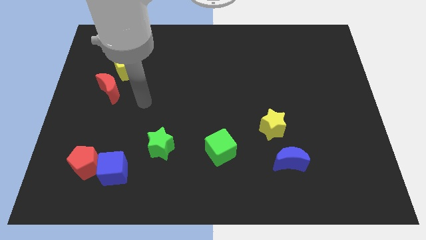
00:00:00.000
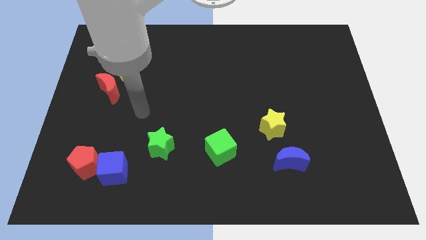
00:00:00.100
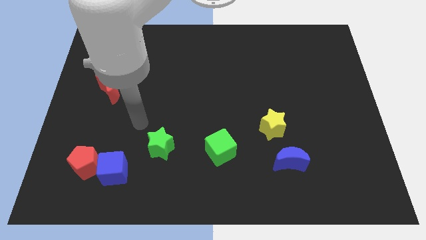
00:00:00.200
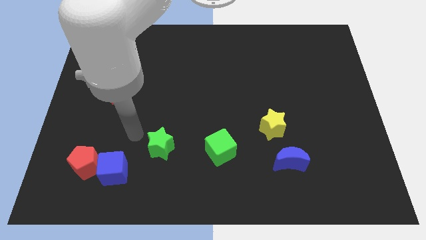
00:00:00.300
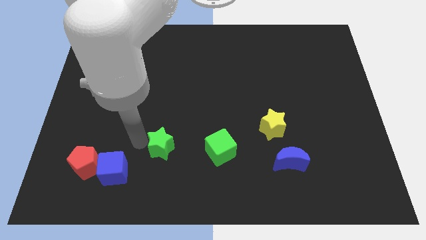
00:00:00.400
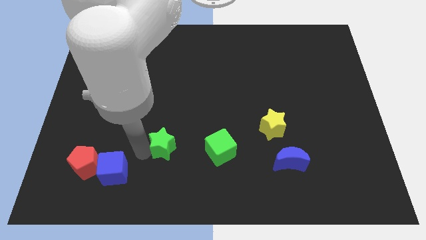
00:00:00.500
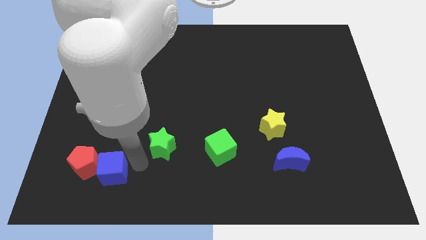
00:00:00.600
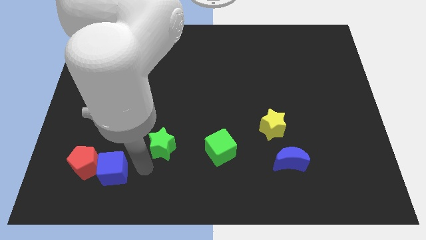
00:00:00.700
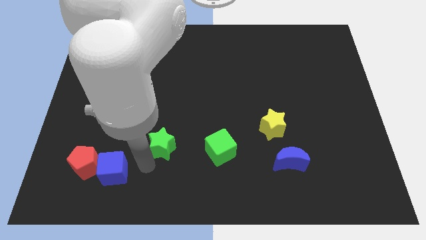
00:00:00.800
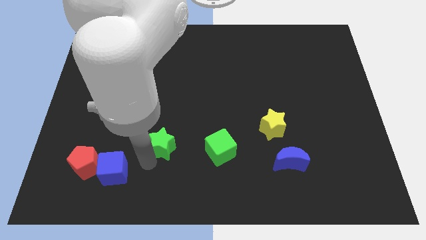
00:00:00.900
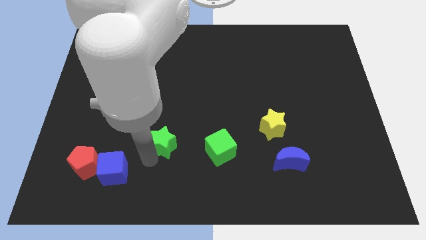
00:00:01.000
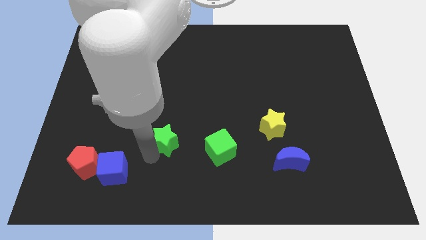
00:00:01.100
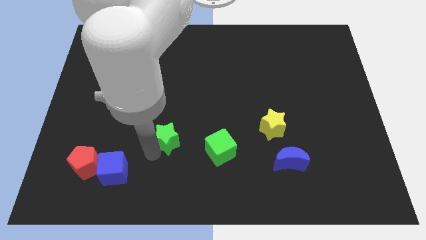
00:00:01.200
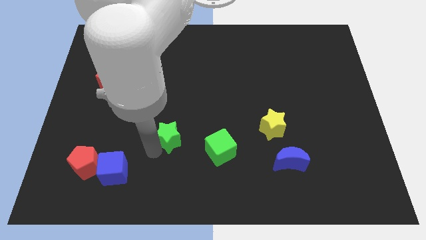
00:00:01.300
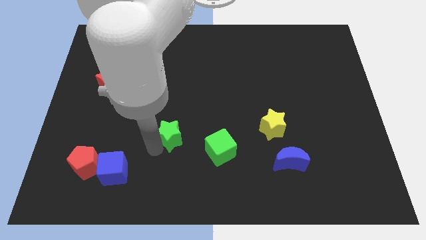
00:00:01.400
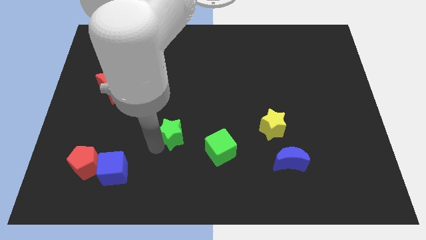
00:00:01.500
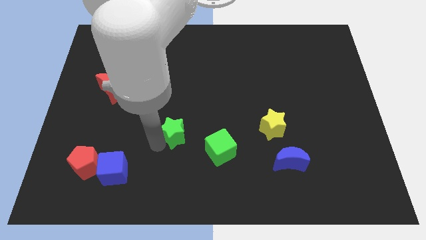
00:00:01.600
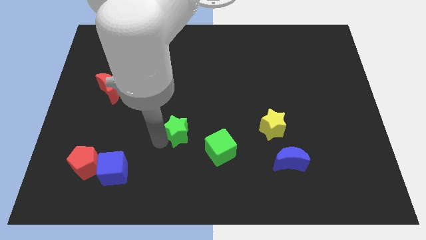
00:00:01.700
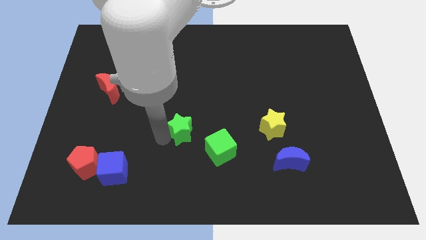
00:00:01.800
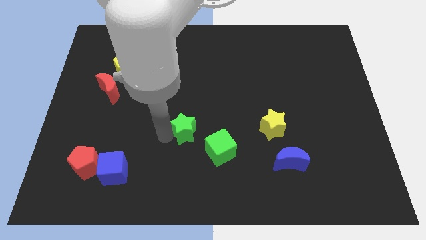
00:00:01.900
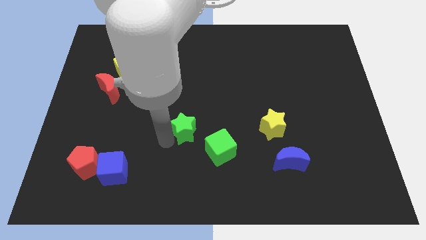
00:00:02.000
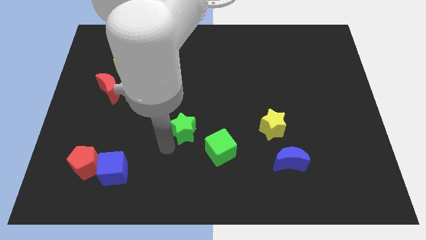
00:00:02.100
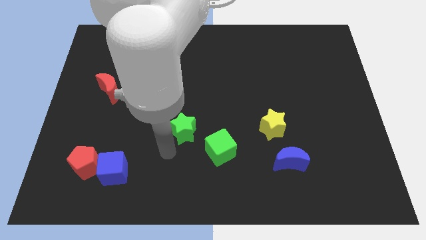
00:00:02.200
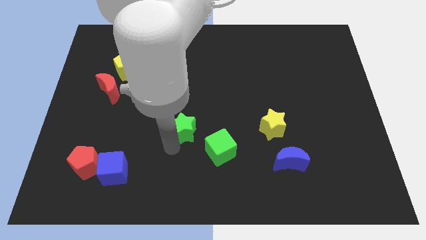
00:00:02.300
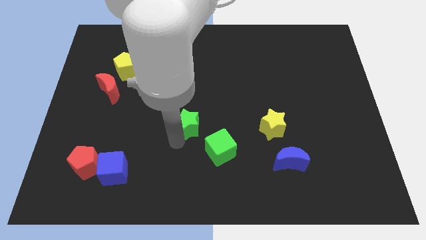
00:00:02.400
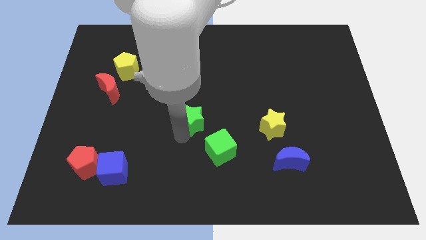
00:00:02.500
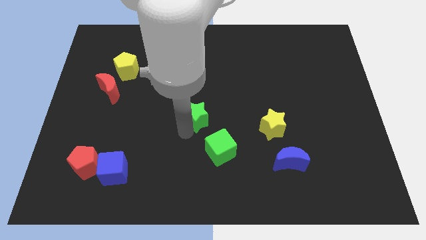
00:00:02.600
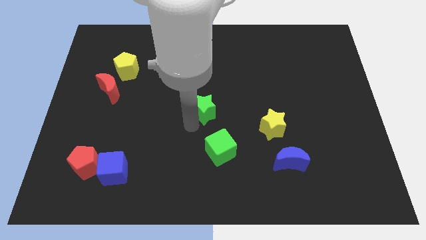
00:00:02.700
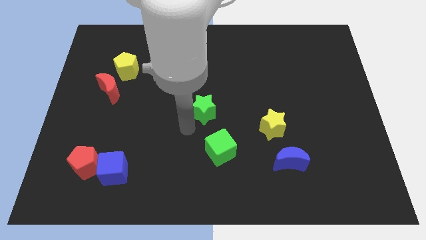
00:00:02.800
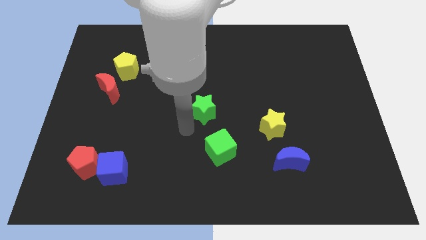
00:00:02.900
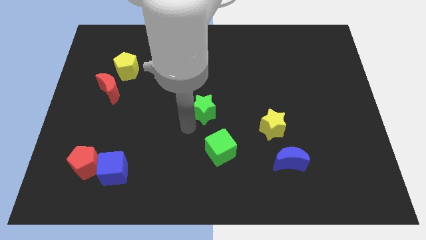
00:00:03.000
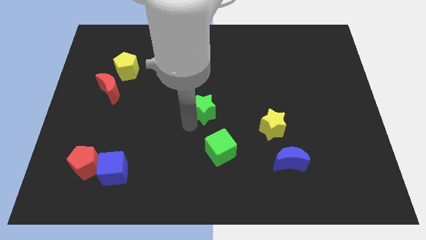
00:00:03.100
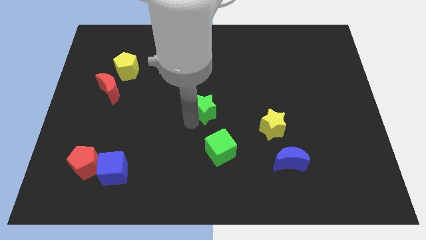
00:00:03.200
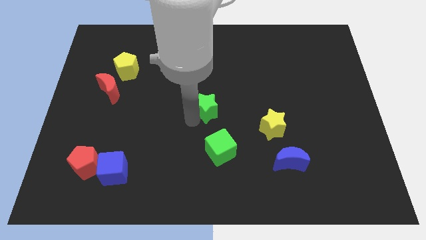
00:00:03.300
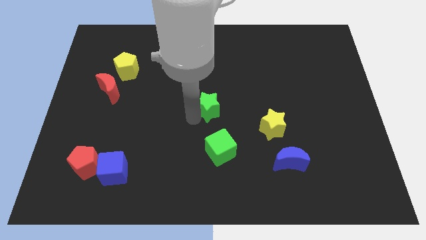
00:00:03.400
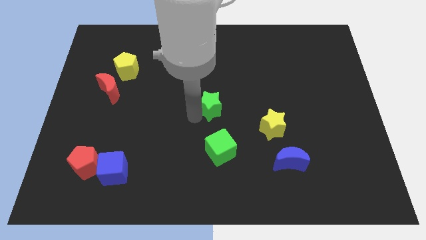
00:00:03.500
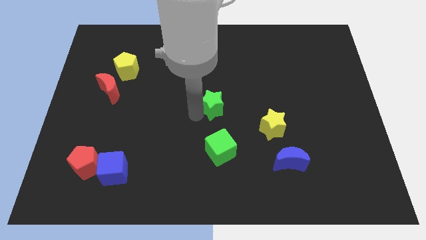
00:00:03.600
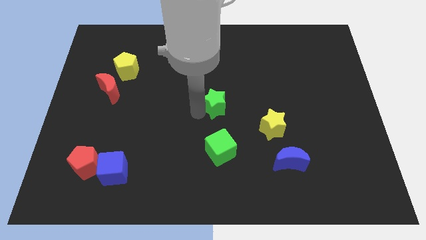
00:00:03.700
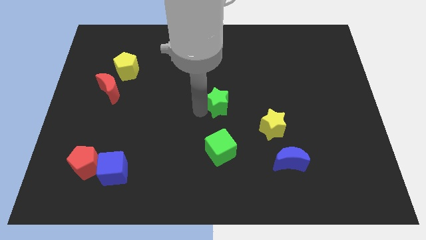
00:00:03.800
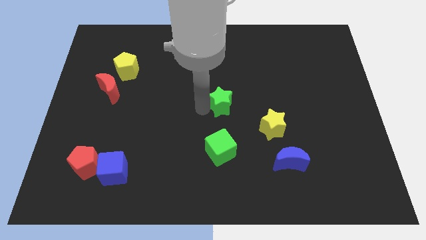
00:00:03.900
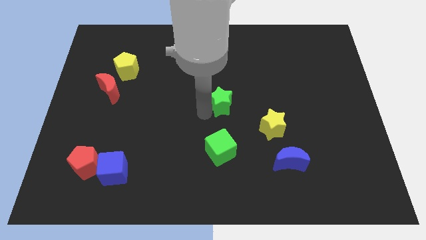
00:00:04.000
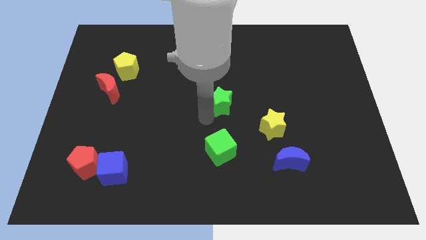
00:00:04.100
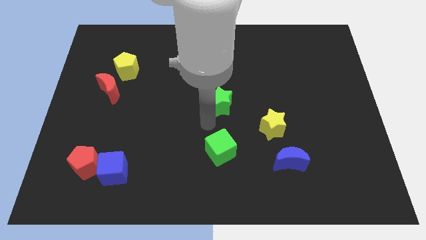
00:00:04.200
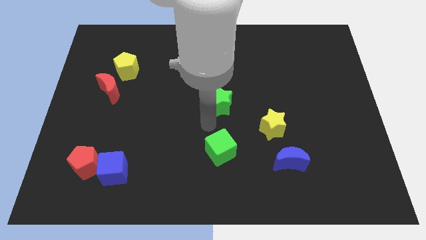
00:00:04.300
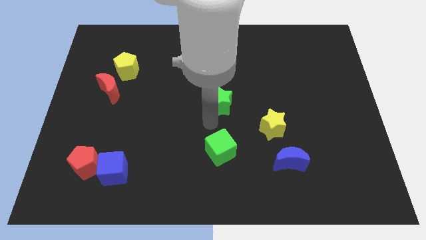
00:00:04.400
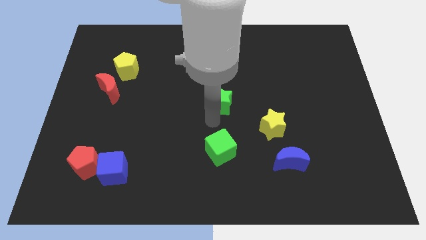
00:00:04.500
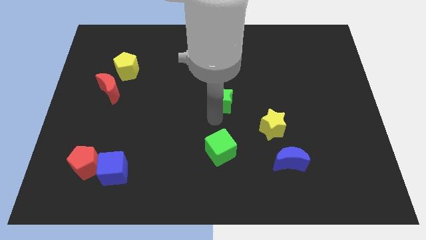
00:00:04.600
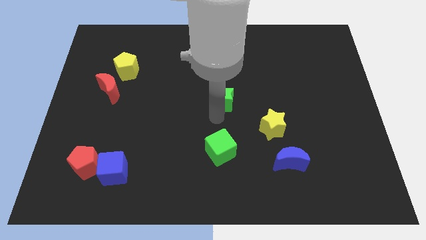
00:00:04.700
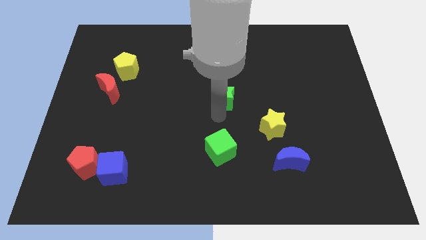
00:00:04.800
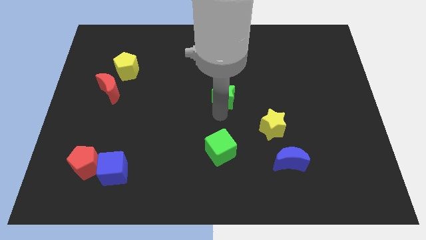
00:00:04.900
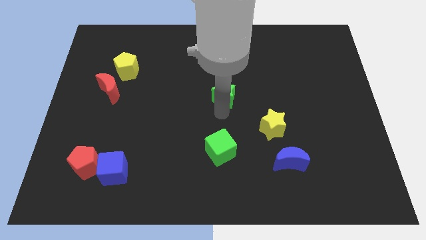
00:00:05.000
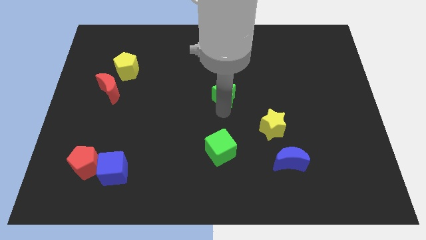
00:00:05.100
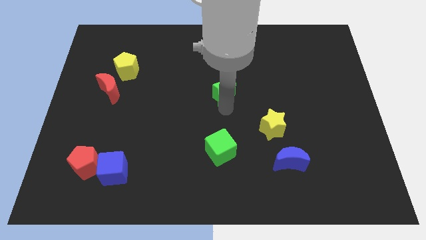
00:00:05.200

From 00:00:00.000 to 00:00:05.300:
push the green star up and right diagonally

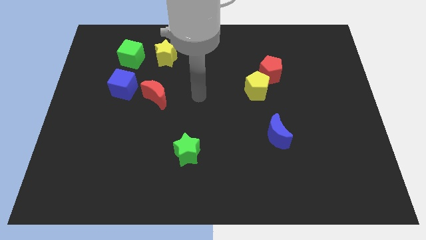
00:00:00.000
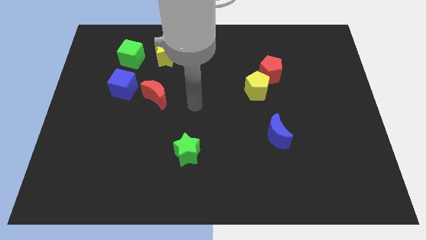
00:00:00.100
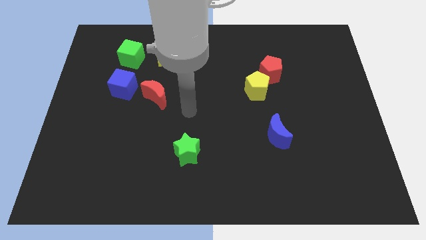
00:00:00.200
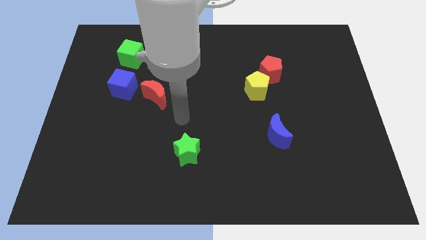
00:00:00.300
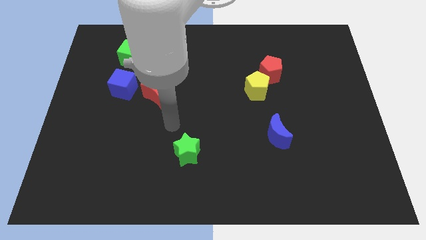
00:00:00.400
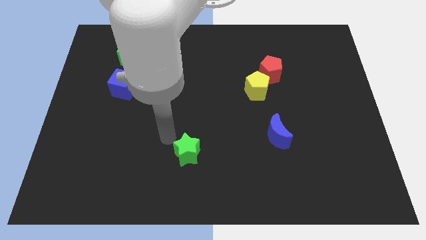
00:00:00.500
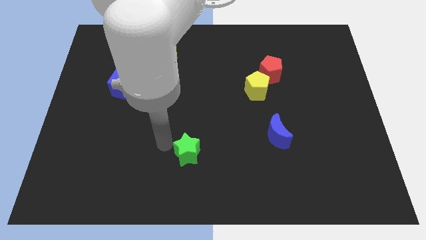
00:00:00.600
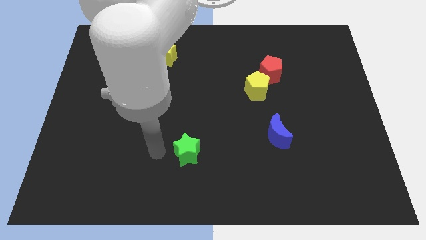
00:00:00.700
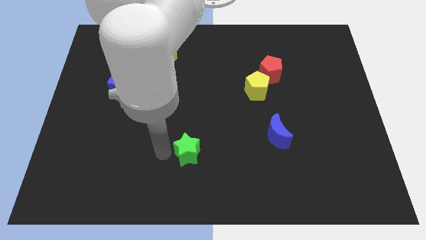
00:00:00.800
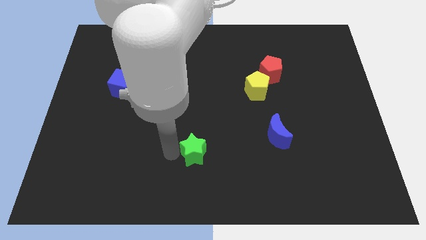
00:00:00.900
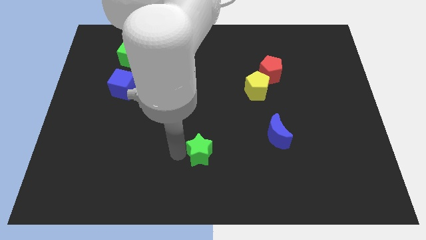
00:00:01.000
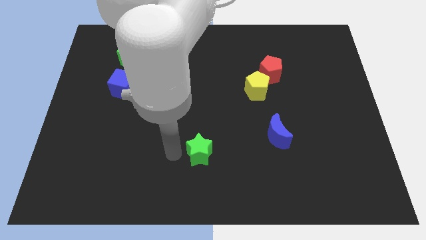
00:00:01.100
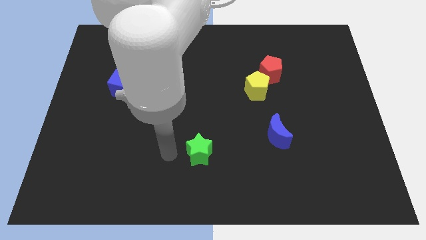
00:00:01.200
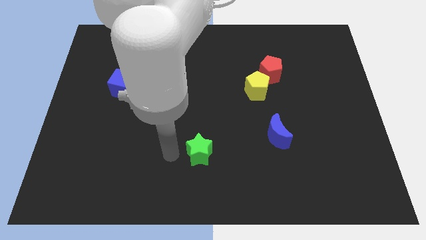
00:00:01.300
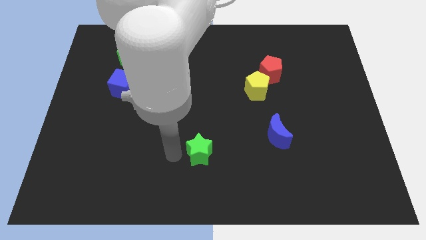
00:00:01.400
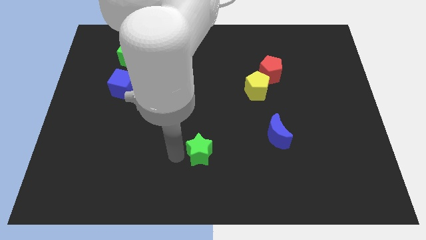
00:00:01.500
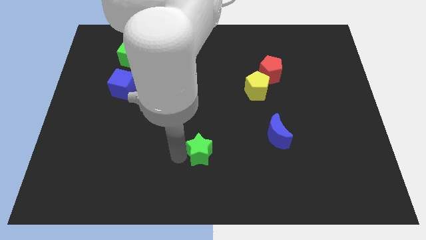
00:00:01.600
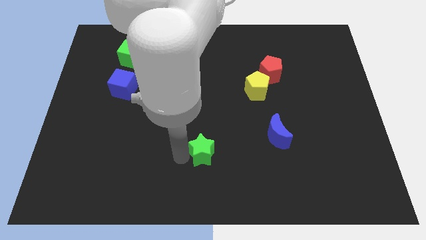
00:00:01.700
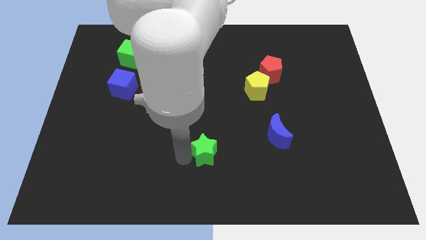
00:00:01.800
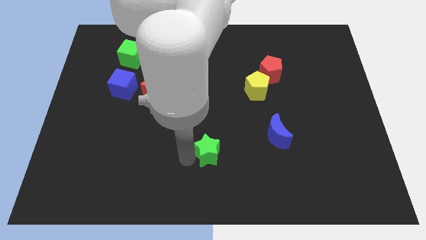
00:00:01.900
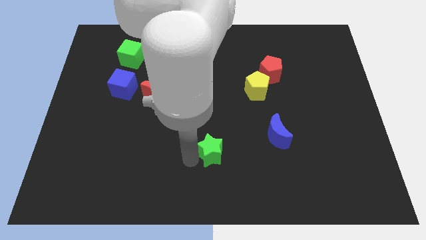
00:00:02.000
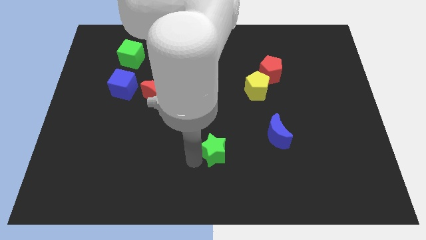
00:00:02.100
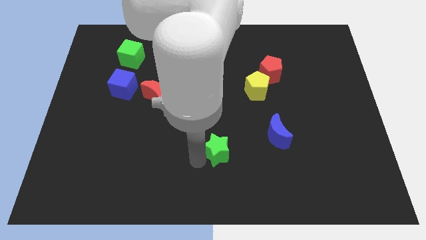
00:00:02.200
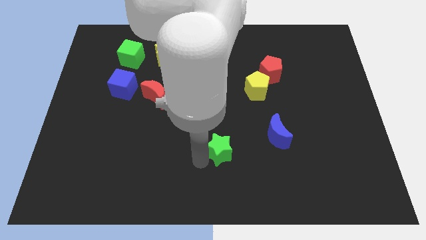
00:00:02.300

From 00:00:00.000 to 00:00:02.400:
push the green star right a little bit
